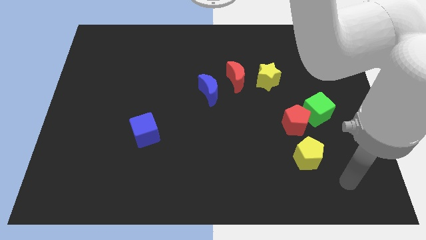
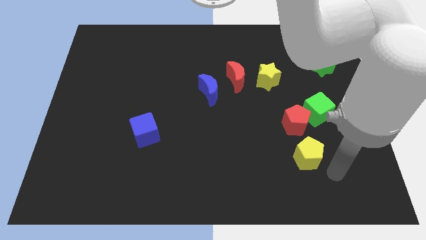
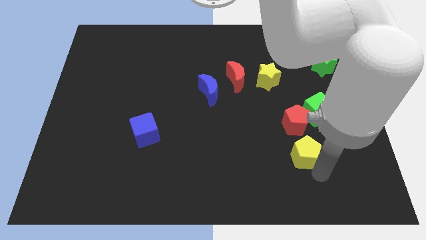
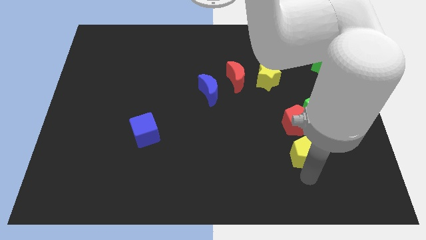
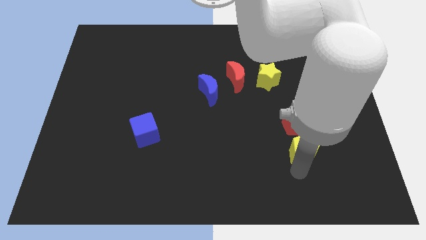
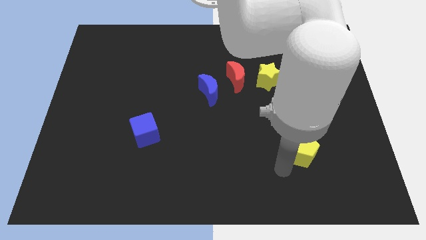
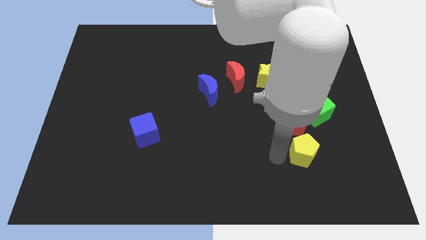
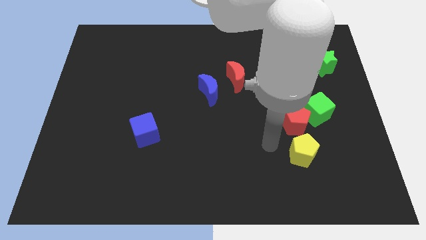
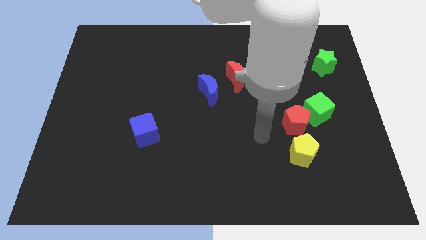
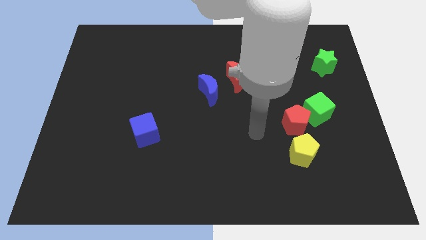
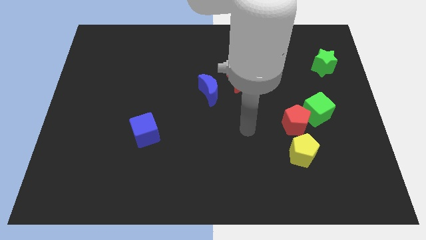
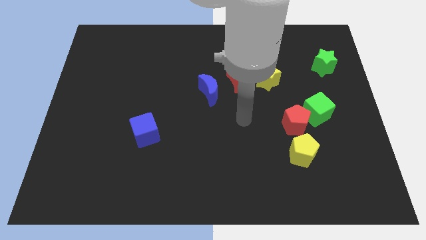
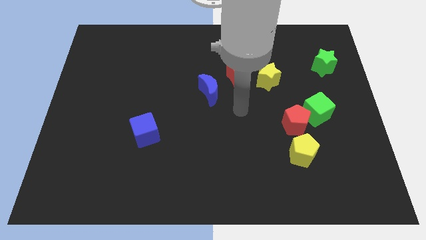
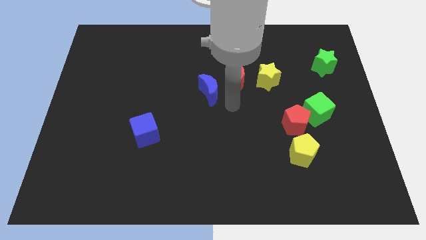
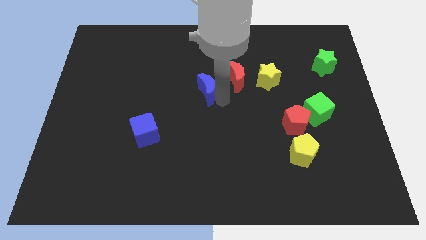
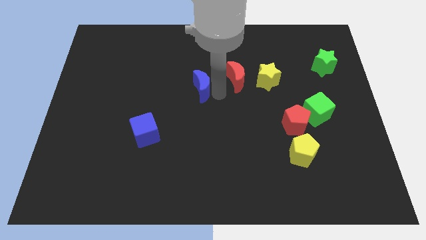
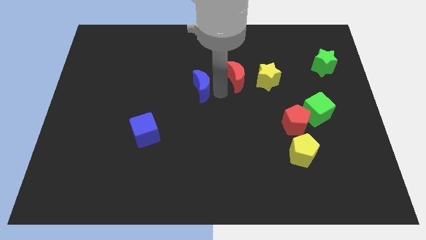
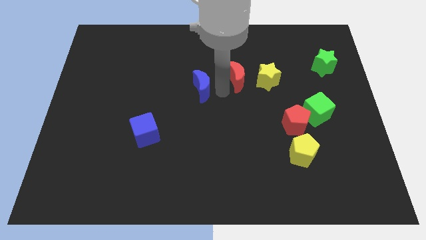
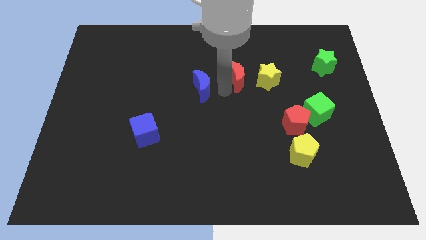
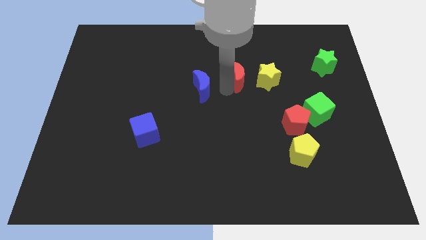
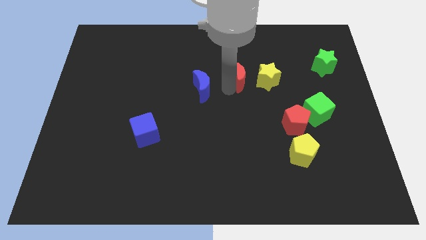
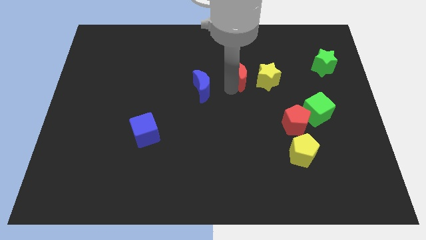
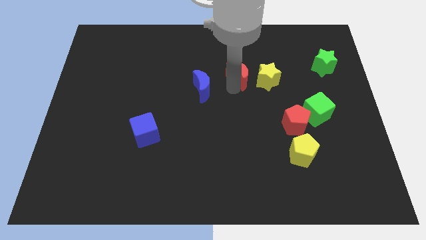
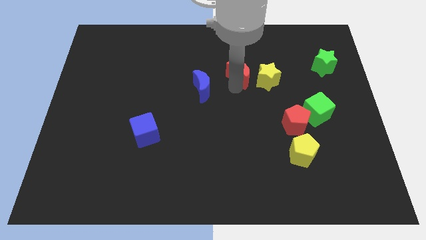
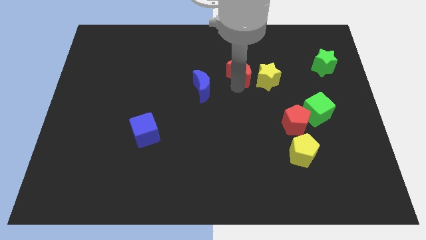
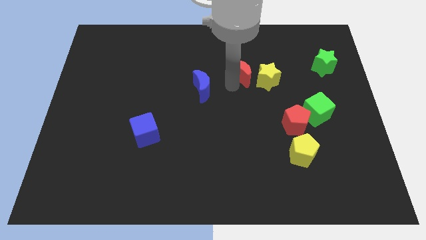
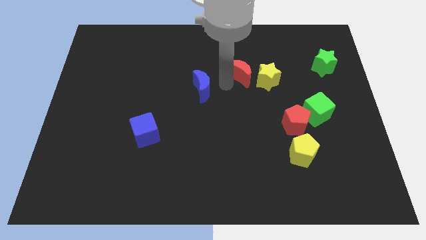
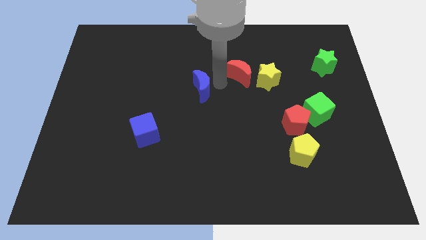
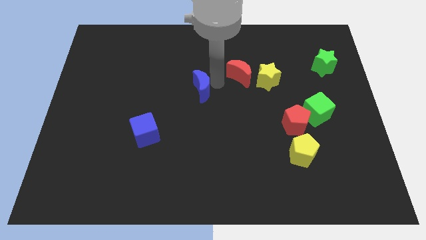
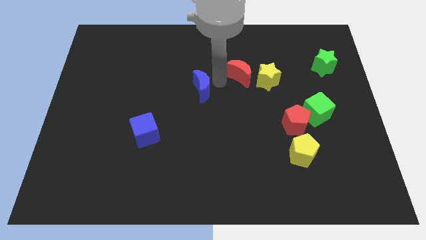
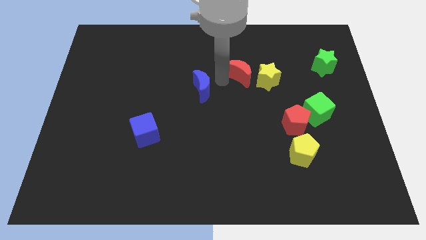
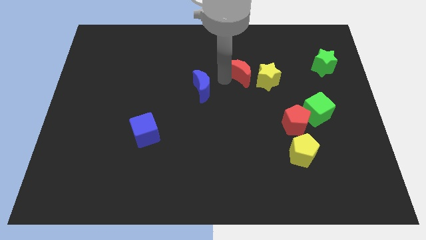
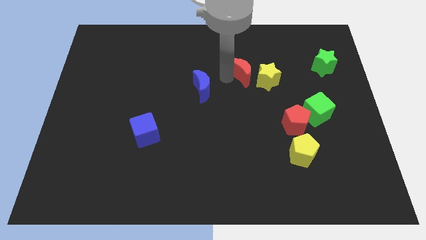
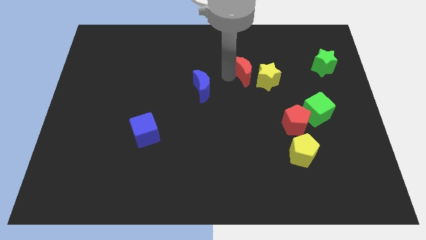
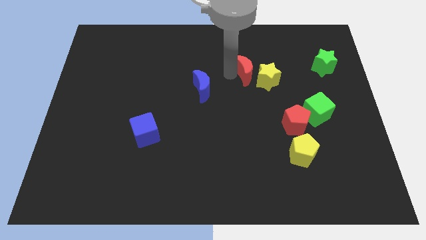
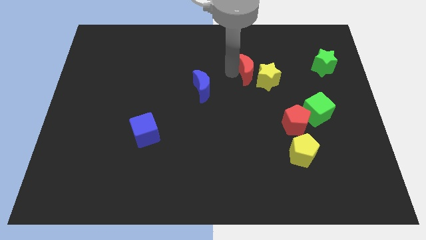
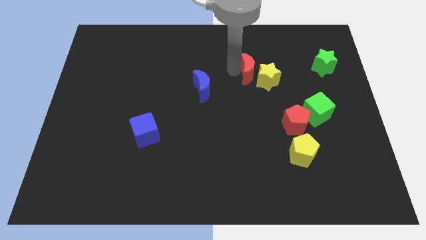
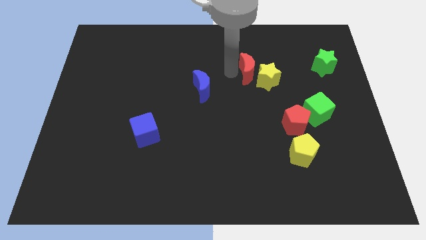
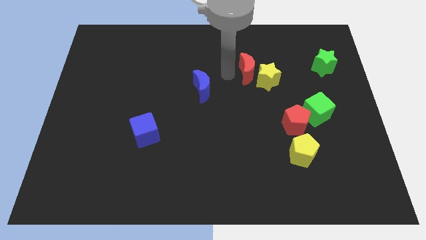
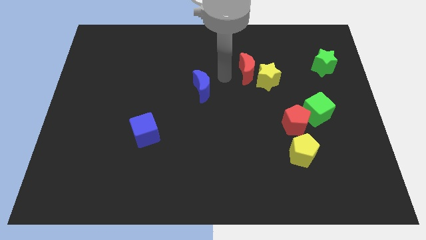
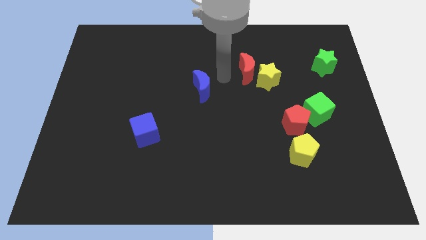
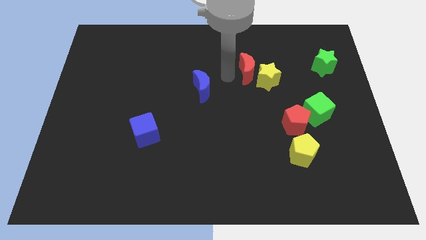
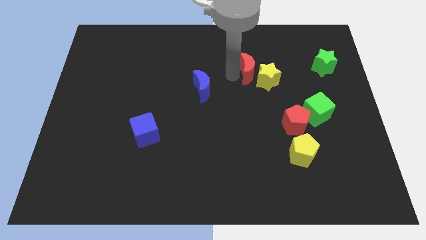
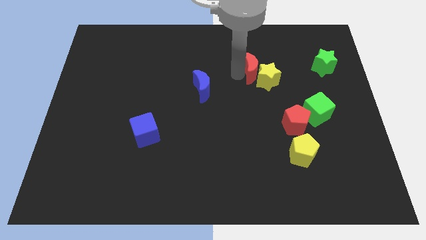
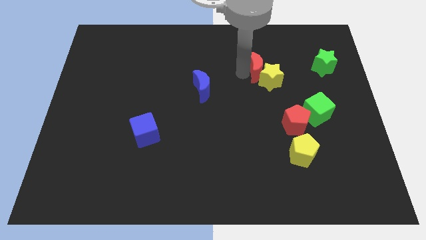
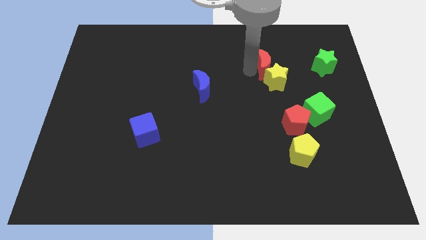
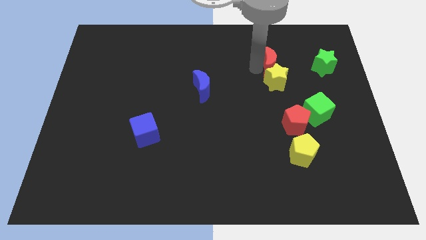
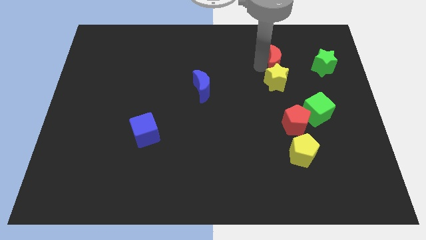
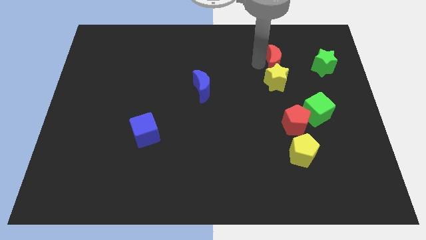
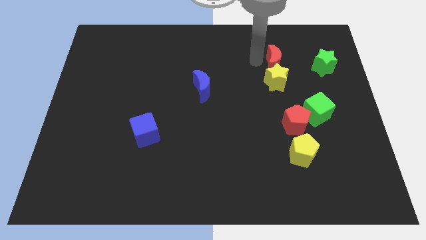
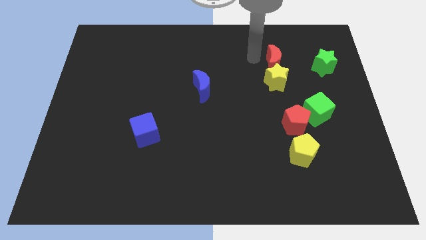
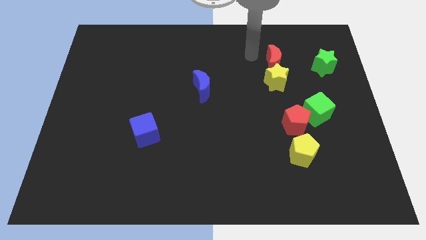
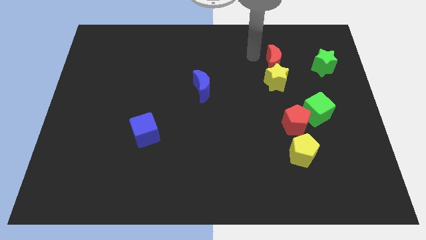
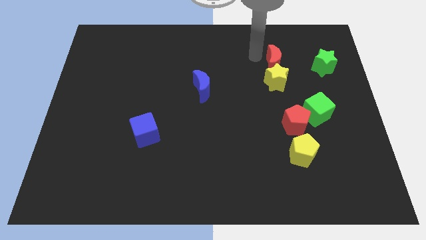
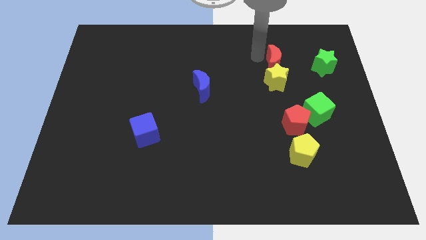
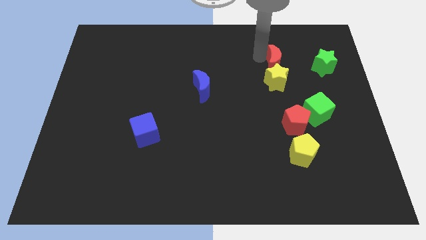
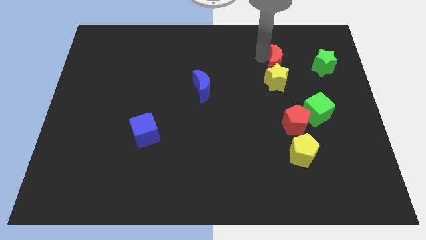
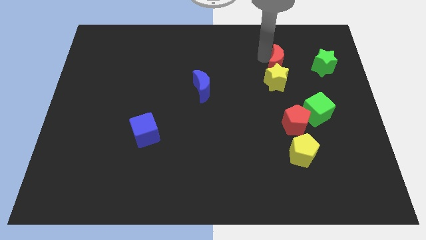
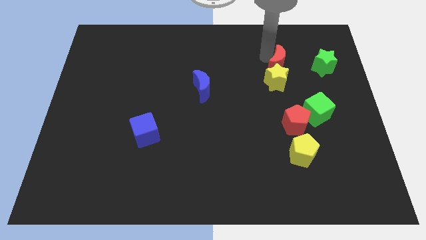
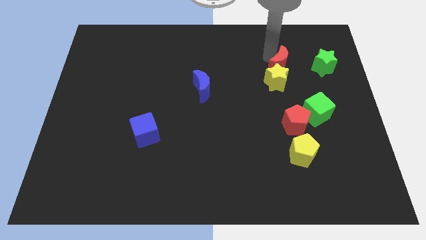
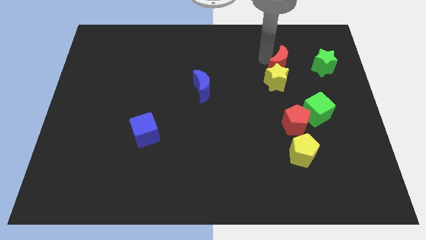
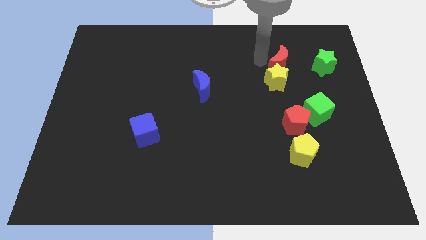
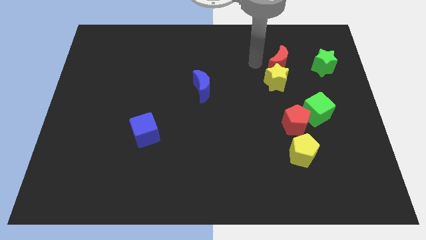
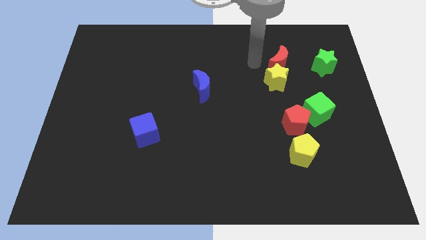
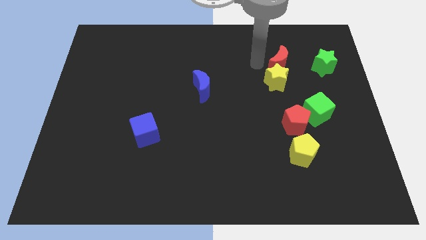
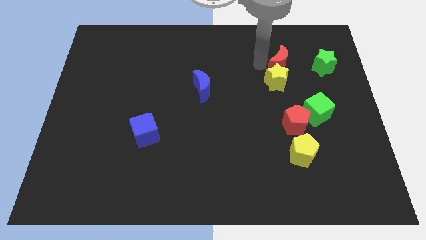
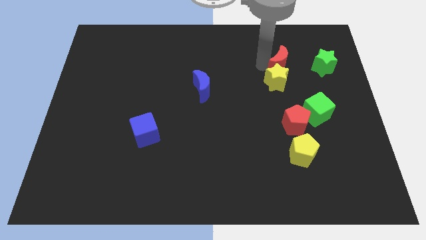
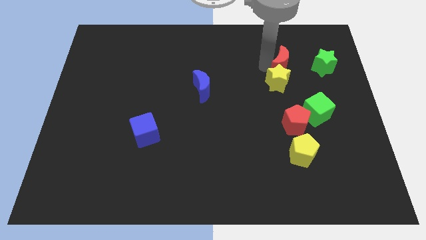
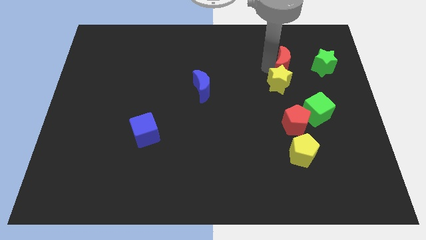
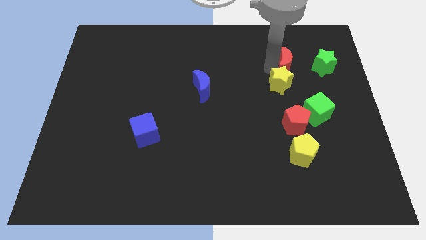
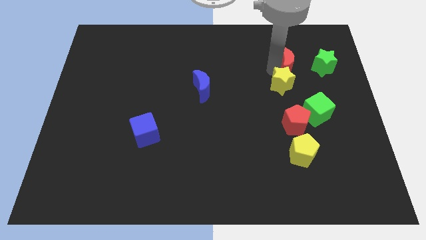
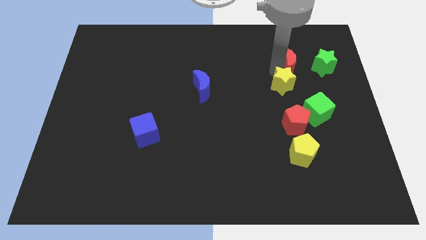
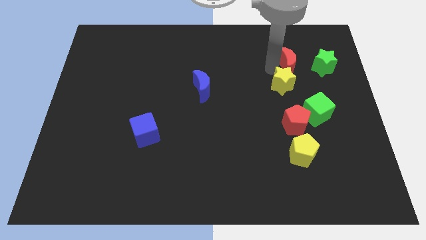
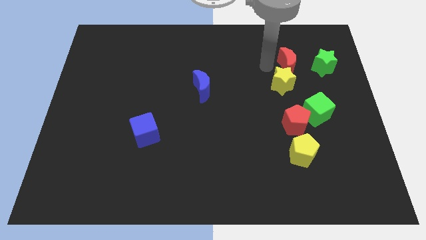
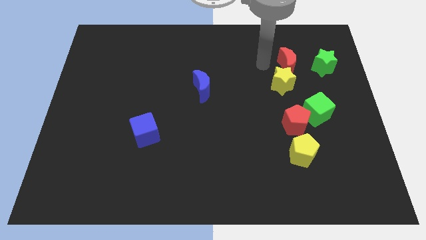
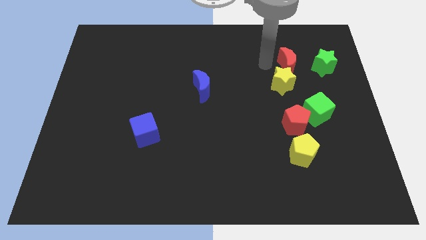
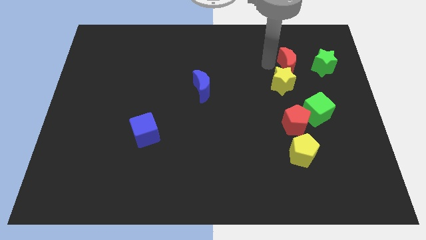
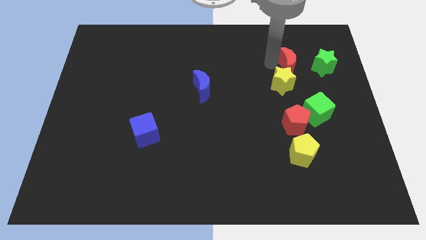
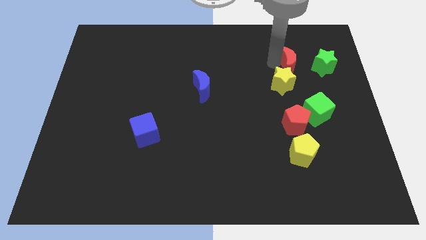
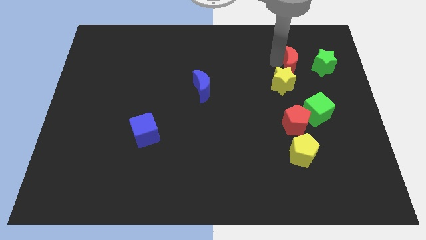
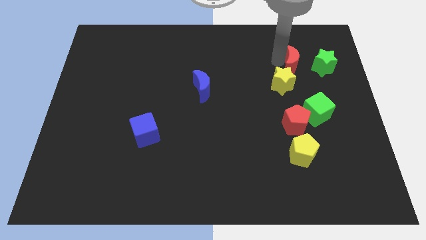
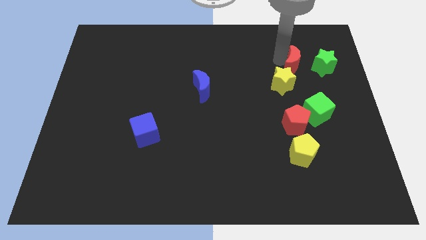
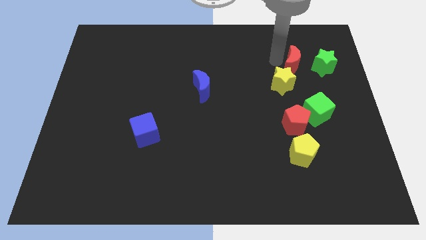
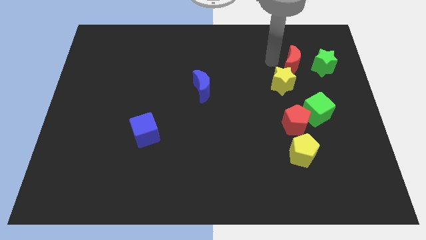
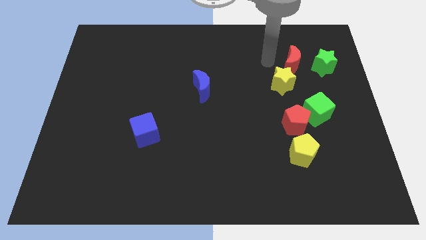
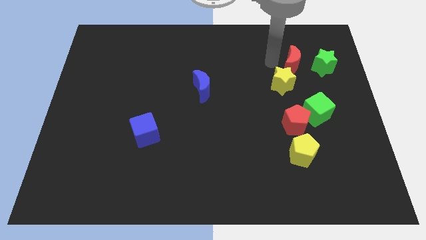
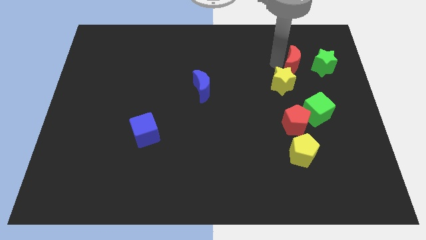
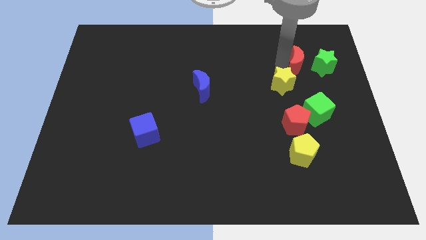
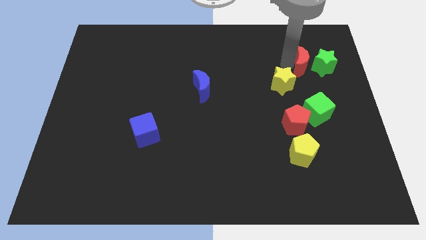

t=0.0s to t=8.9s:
push the red moon next to the green star
